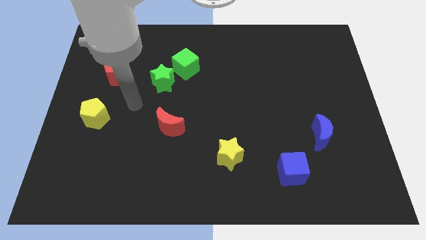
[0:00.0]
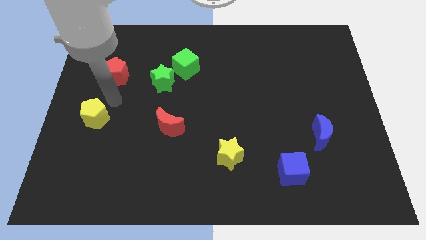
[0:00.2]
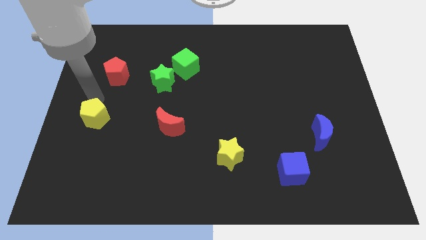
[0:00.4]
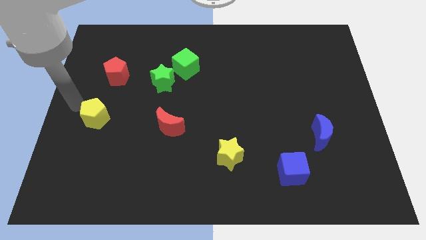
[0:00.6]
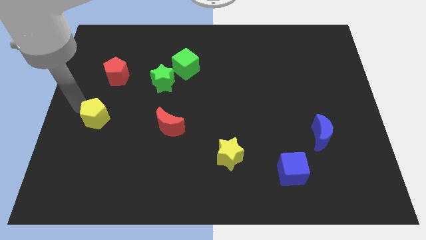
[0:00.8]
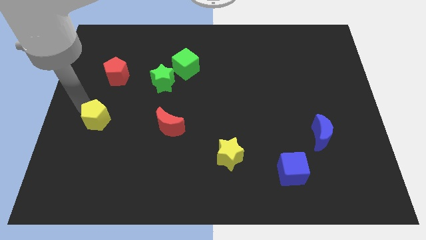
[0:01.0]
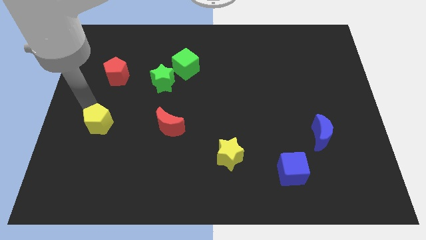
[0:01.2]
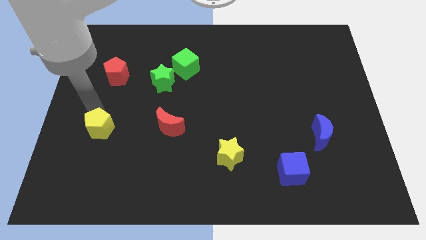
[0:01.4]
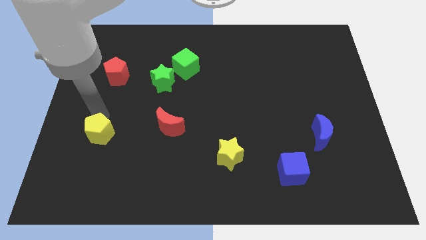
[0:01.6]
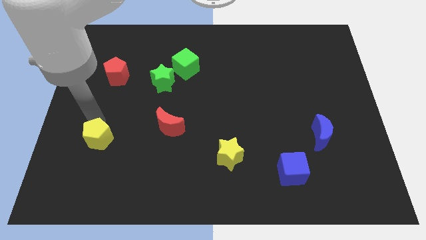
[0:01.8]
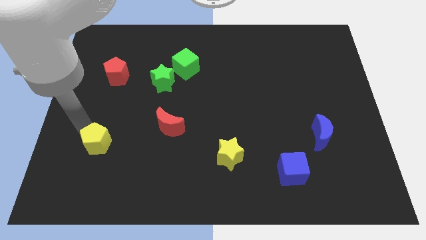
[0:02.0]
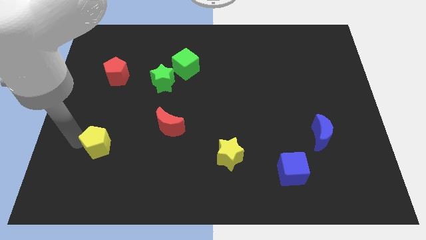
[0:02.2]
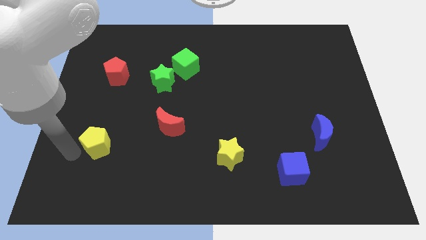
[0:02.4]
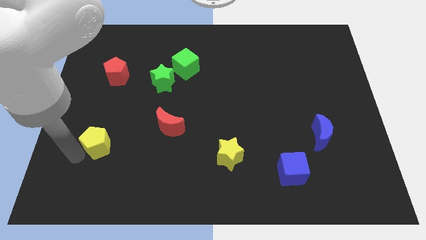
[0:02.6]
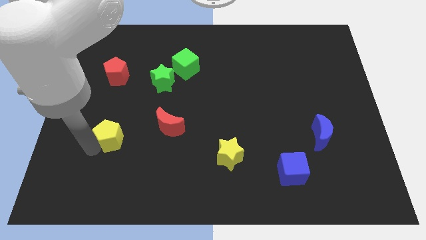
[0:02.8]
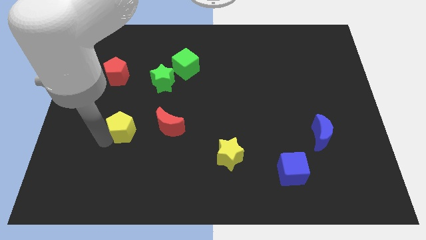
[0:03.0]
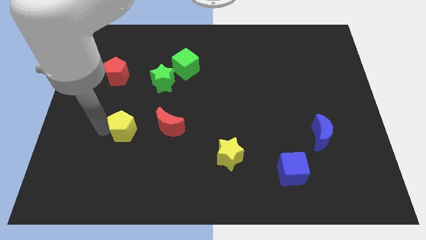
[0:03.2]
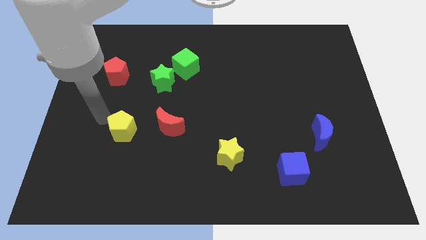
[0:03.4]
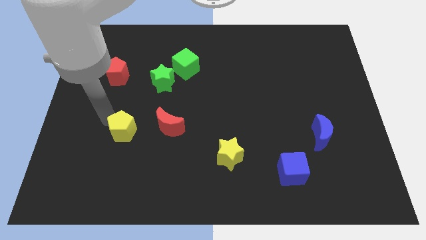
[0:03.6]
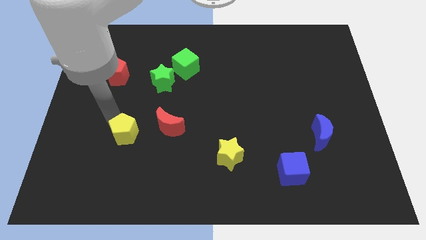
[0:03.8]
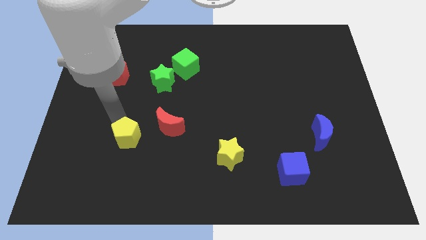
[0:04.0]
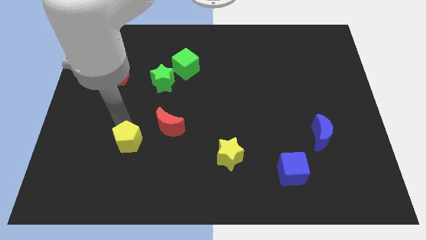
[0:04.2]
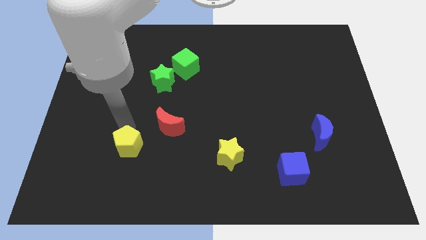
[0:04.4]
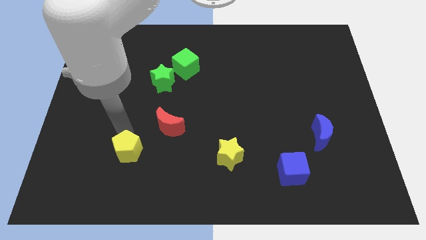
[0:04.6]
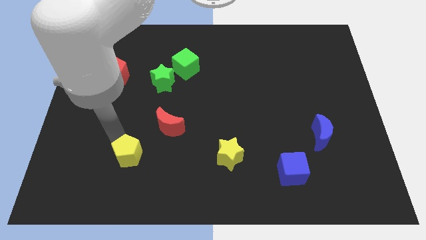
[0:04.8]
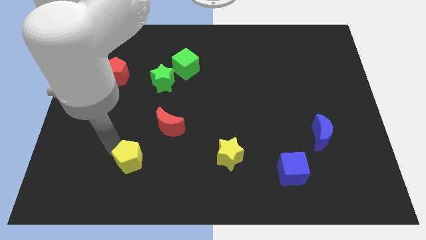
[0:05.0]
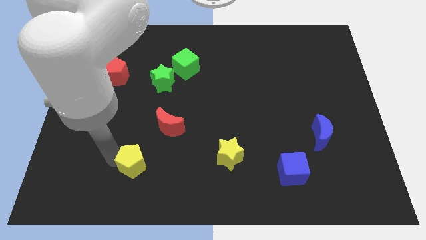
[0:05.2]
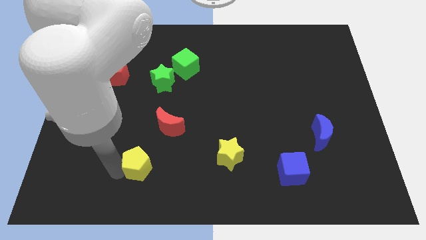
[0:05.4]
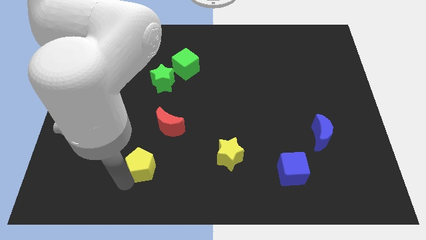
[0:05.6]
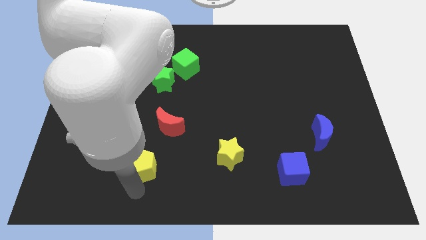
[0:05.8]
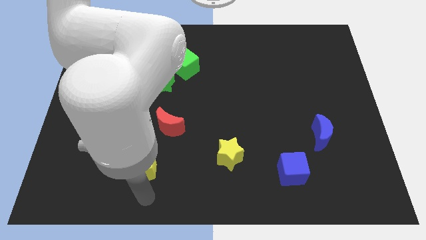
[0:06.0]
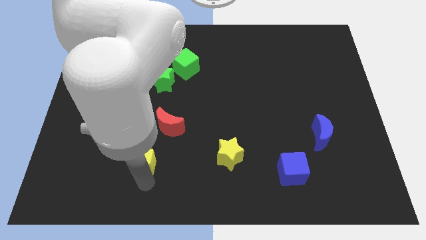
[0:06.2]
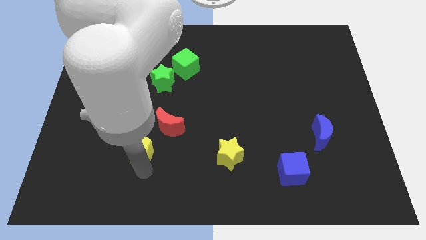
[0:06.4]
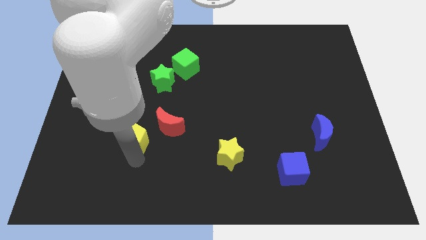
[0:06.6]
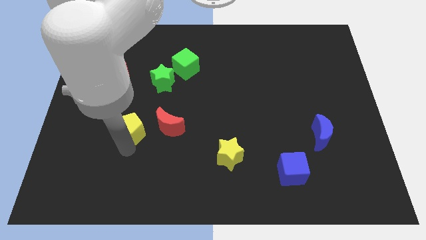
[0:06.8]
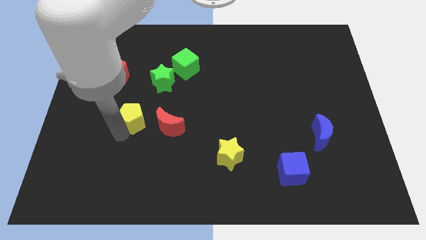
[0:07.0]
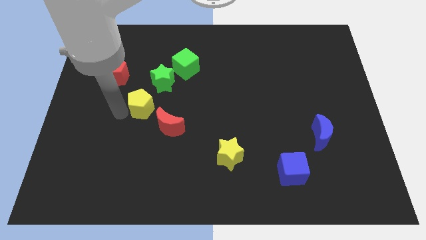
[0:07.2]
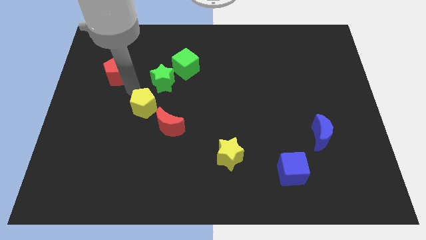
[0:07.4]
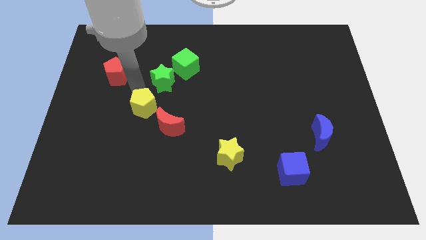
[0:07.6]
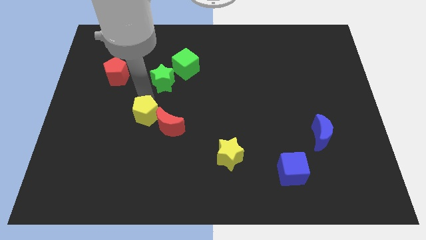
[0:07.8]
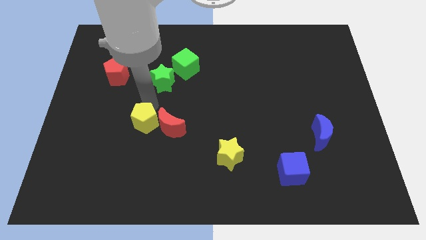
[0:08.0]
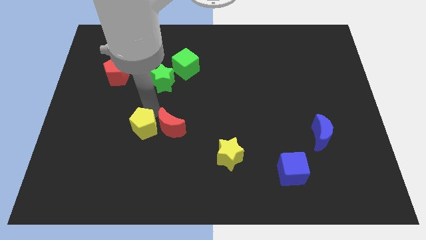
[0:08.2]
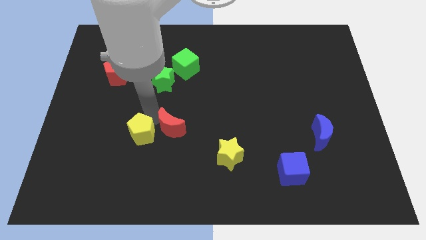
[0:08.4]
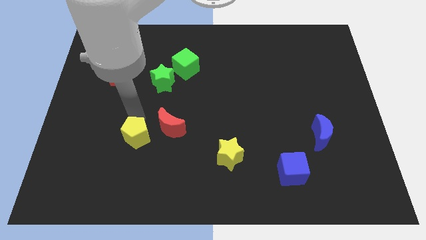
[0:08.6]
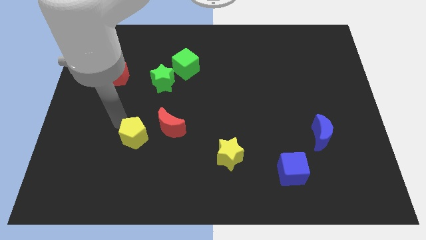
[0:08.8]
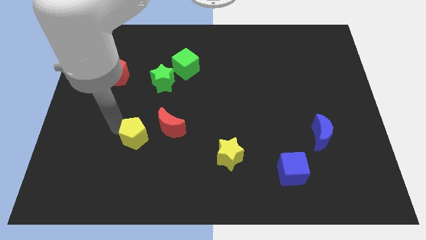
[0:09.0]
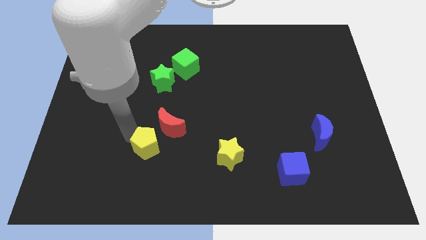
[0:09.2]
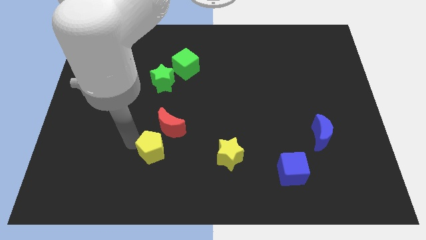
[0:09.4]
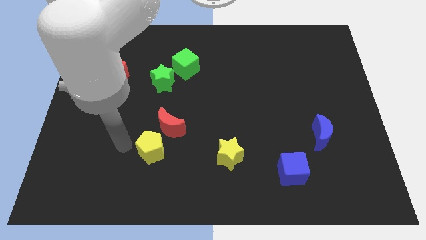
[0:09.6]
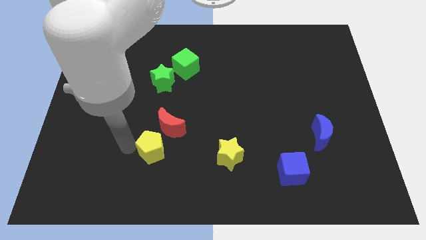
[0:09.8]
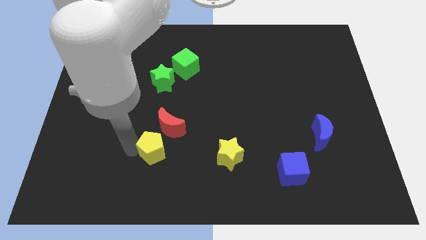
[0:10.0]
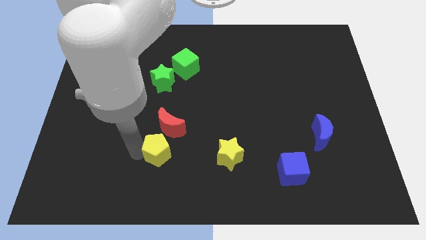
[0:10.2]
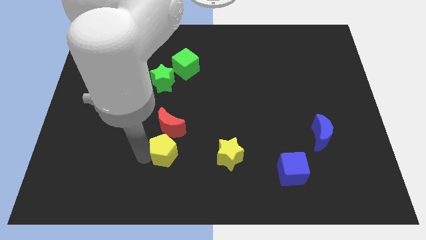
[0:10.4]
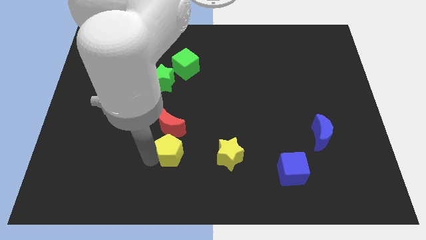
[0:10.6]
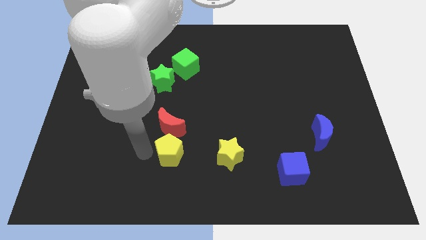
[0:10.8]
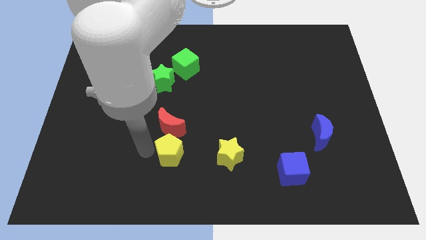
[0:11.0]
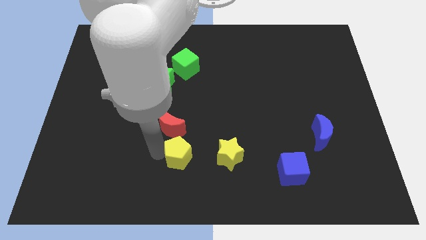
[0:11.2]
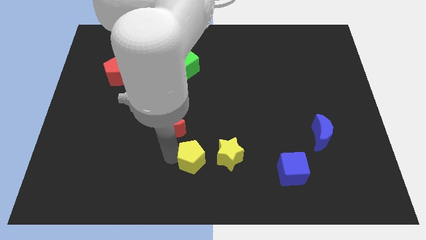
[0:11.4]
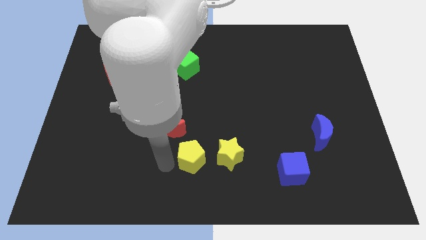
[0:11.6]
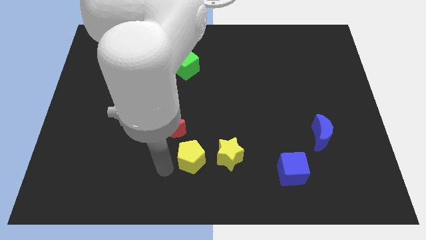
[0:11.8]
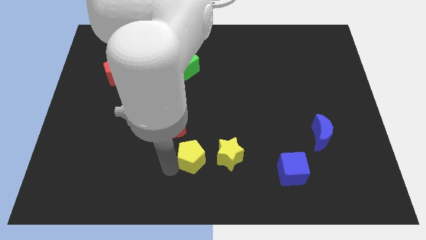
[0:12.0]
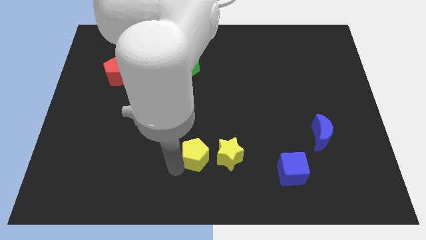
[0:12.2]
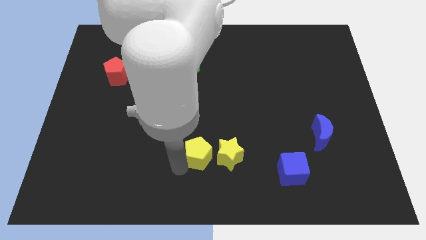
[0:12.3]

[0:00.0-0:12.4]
push the yellow pentagon to the yellow star

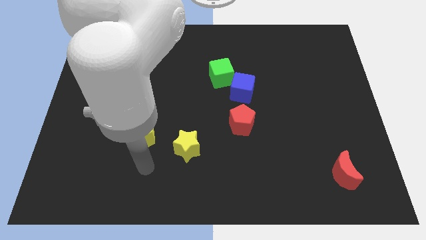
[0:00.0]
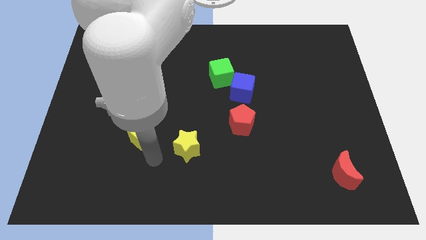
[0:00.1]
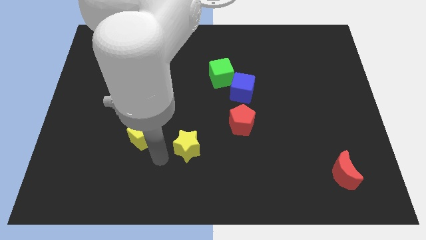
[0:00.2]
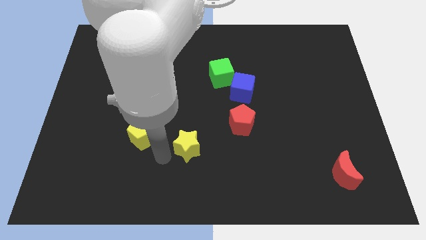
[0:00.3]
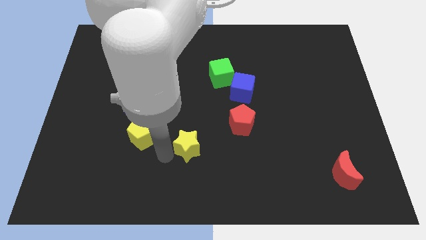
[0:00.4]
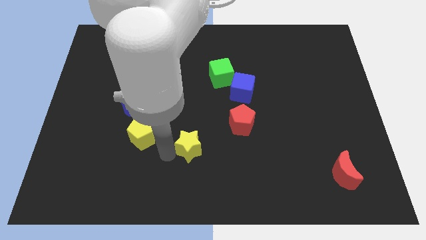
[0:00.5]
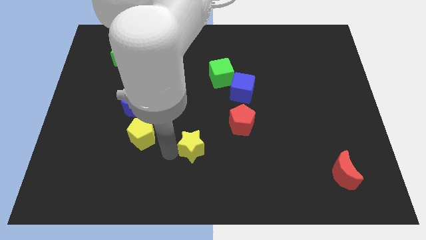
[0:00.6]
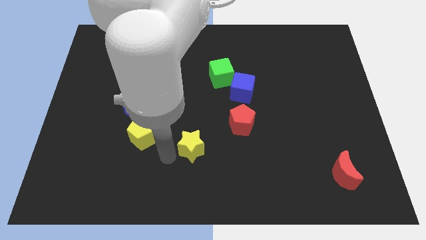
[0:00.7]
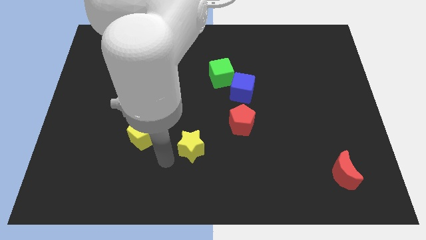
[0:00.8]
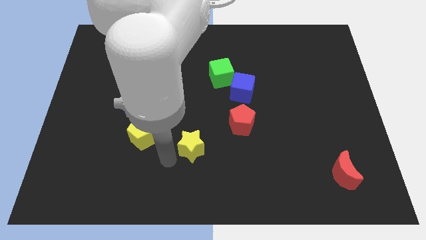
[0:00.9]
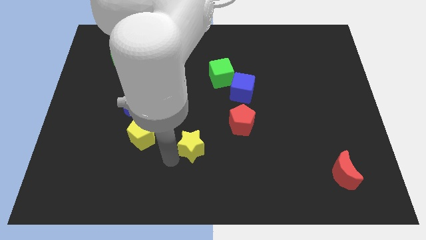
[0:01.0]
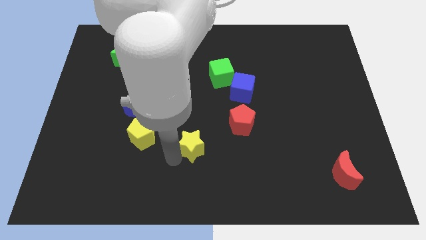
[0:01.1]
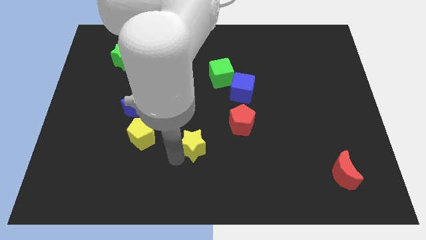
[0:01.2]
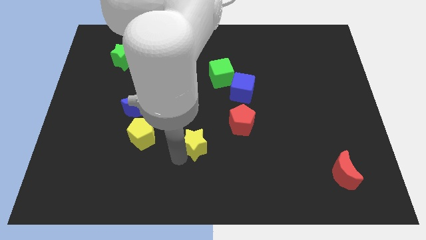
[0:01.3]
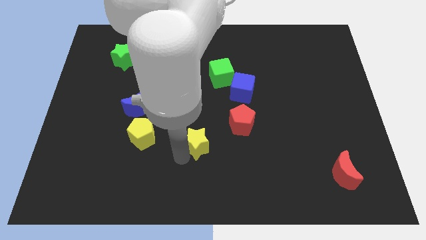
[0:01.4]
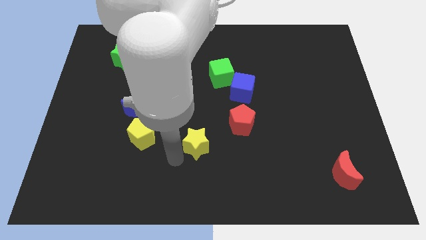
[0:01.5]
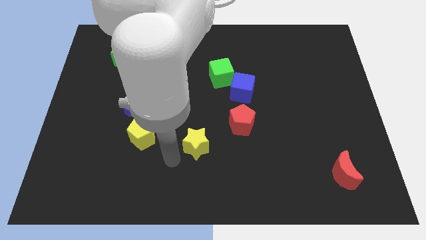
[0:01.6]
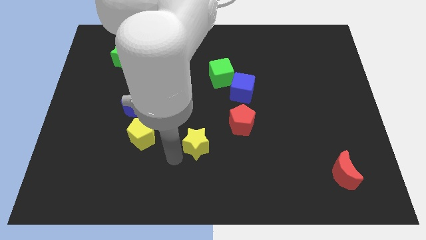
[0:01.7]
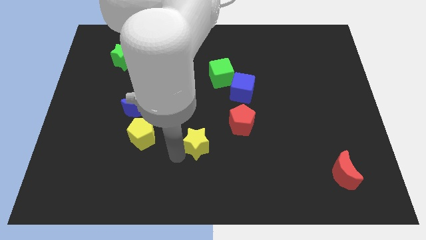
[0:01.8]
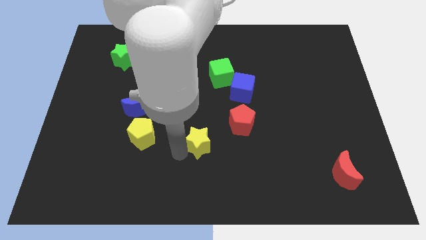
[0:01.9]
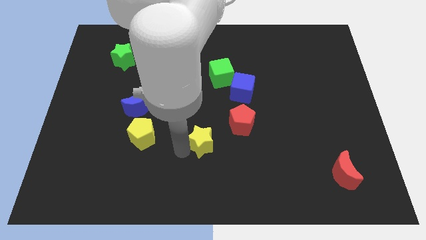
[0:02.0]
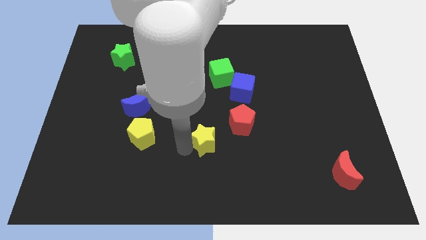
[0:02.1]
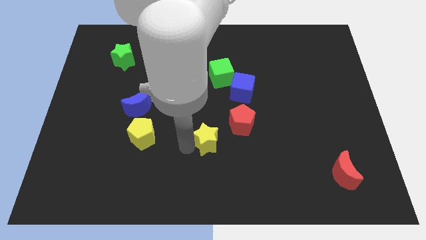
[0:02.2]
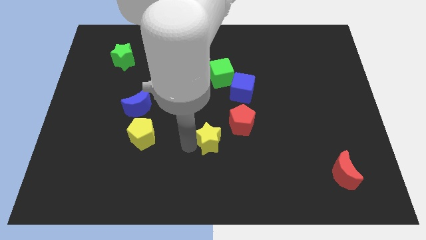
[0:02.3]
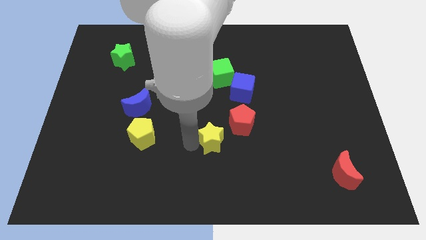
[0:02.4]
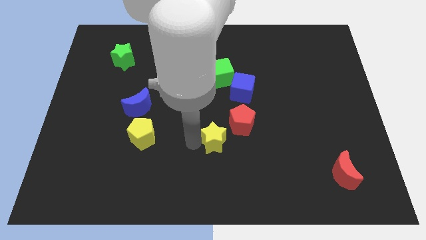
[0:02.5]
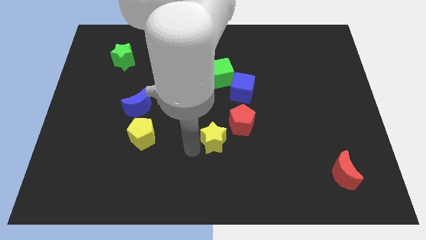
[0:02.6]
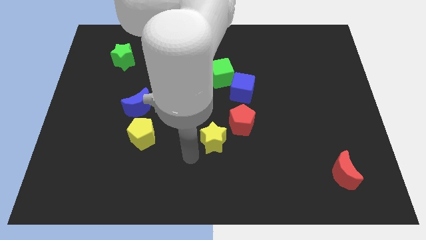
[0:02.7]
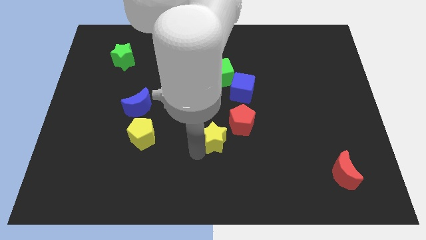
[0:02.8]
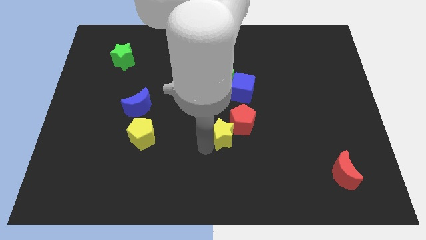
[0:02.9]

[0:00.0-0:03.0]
push the yellow star close to the red pentagon
